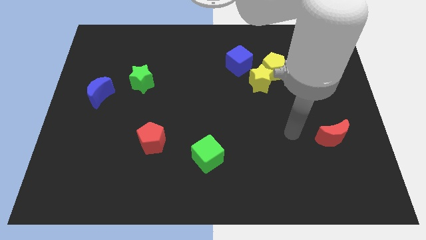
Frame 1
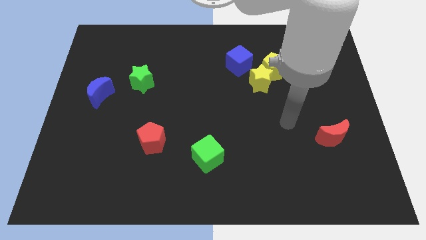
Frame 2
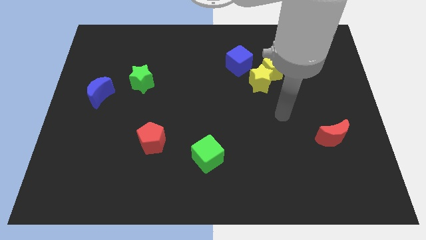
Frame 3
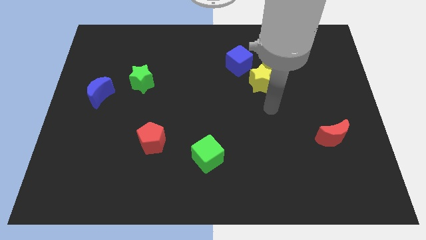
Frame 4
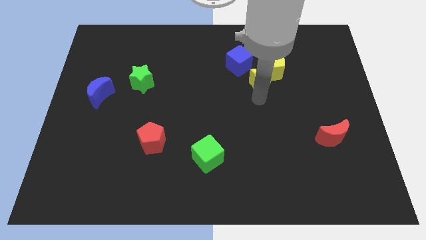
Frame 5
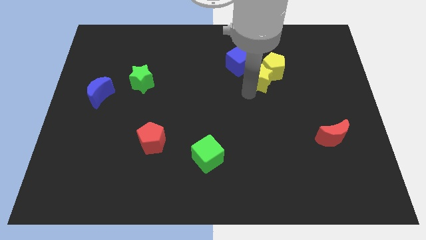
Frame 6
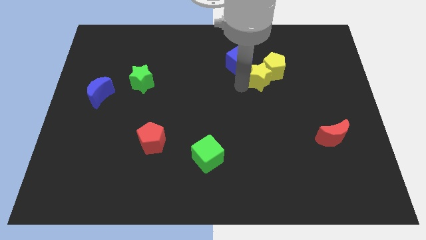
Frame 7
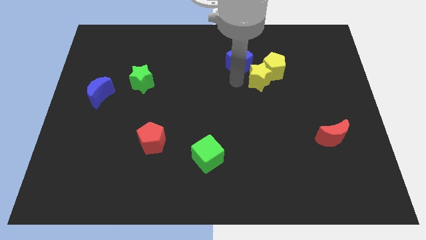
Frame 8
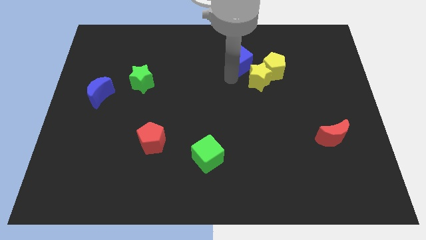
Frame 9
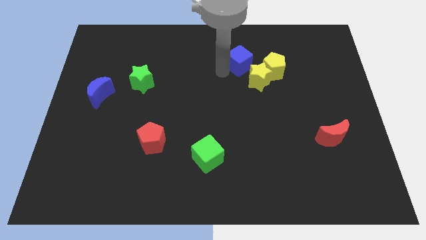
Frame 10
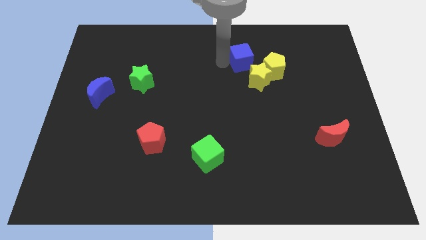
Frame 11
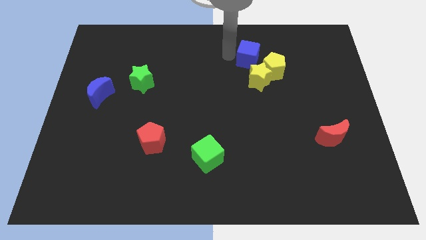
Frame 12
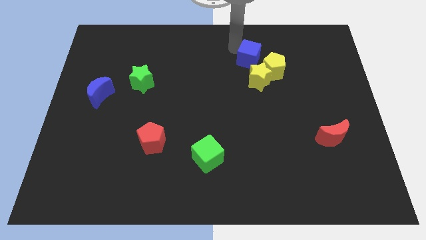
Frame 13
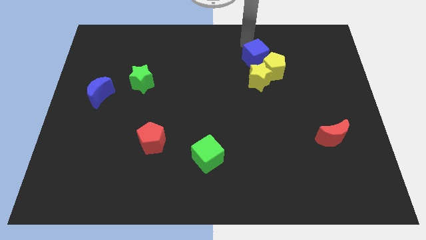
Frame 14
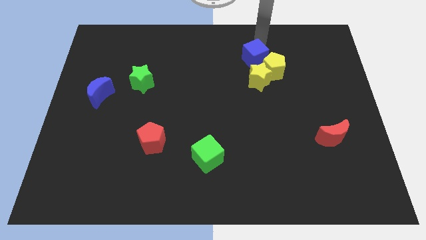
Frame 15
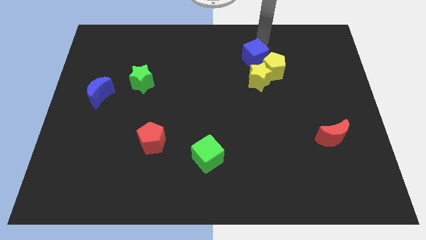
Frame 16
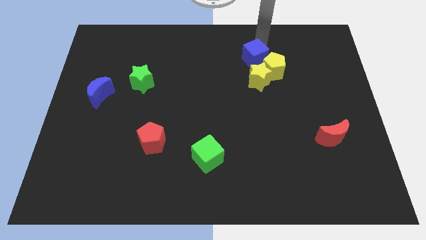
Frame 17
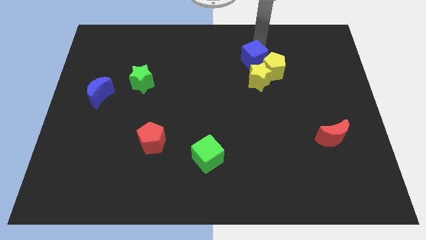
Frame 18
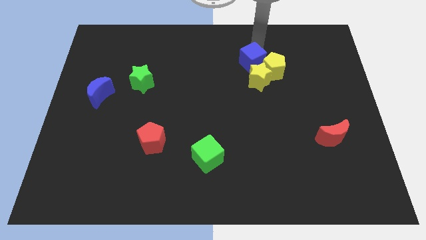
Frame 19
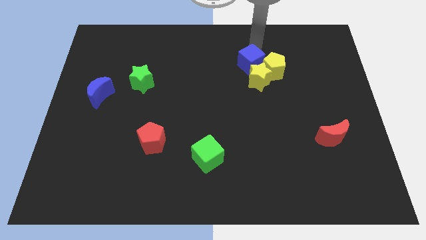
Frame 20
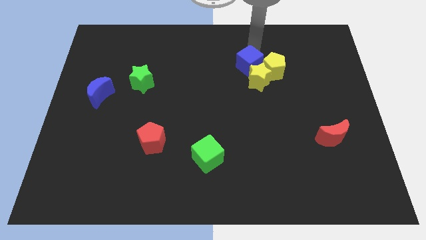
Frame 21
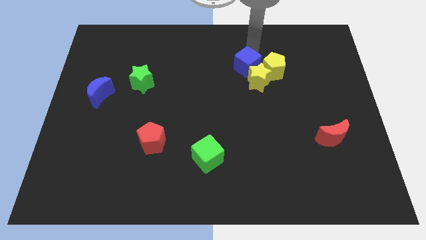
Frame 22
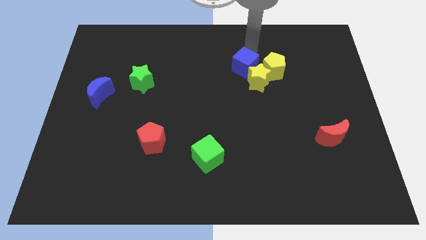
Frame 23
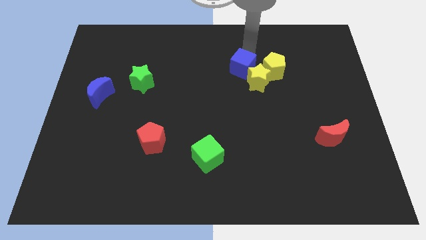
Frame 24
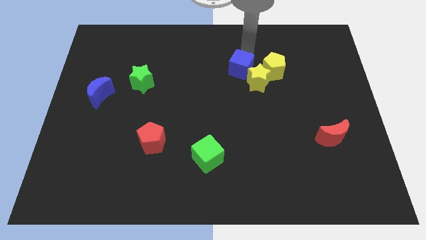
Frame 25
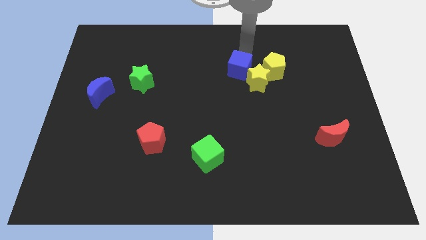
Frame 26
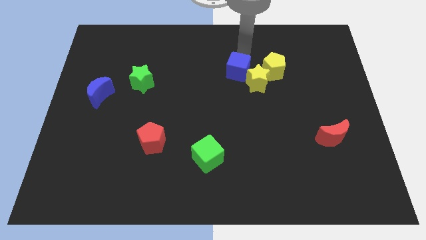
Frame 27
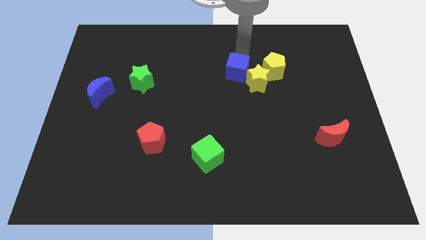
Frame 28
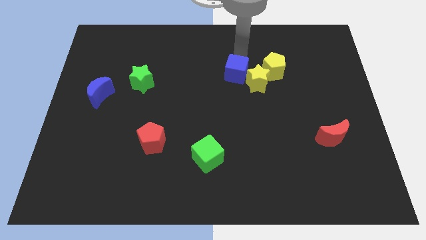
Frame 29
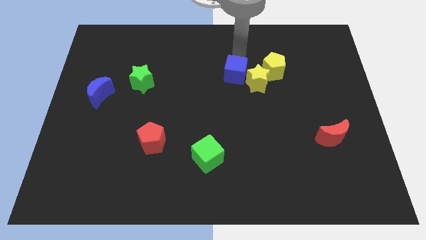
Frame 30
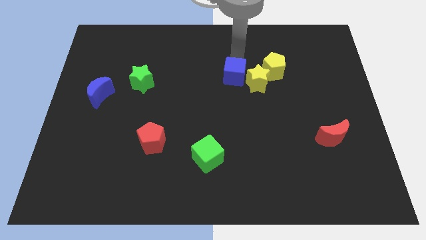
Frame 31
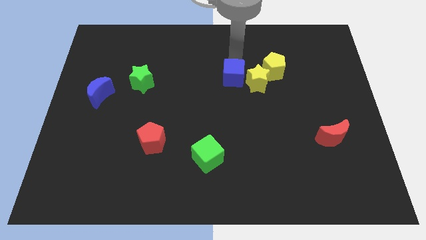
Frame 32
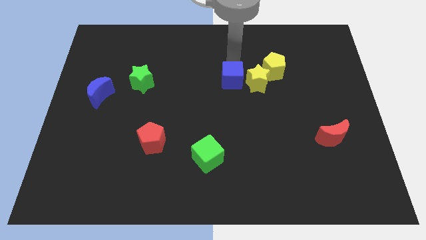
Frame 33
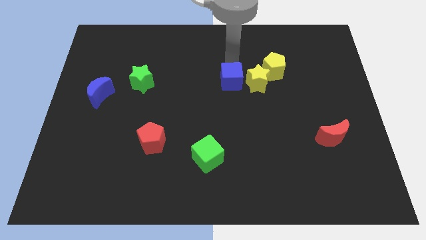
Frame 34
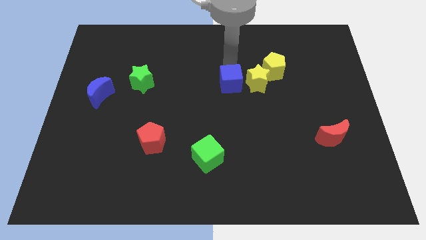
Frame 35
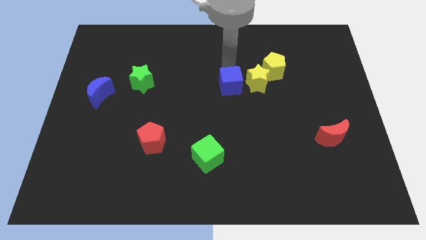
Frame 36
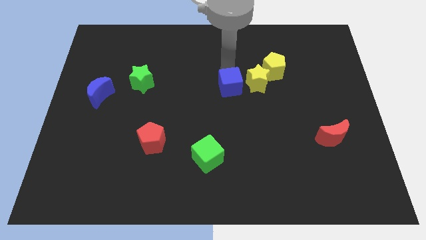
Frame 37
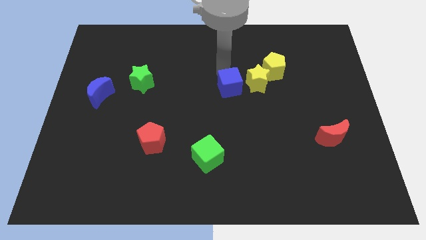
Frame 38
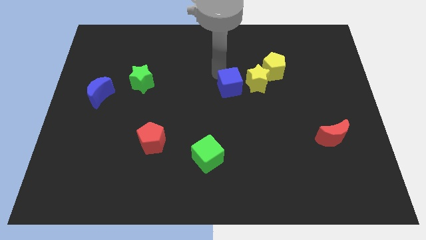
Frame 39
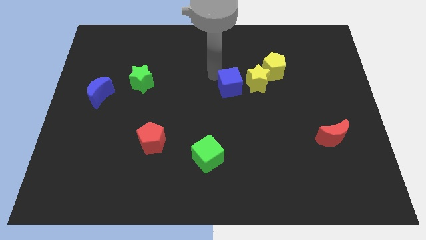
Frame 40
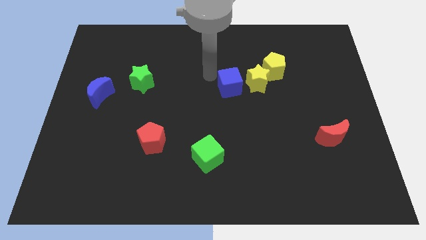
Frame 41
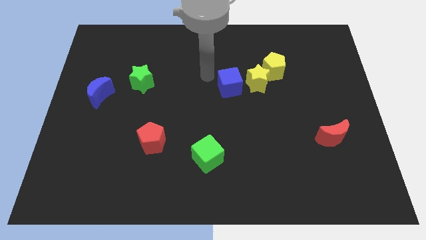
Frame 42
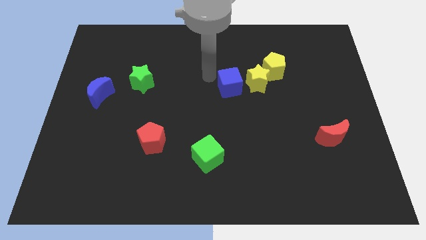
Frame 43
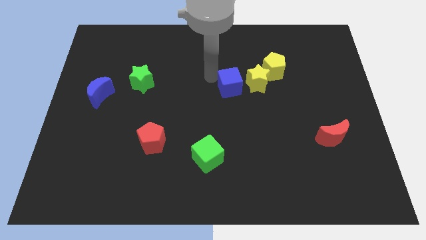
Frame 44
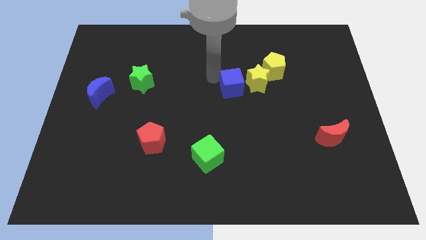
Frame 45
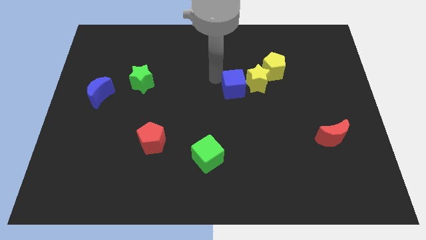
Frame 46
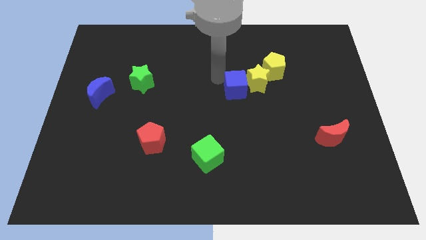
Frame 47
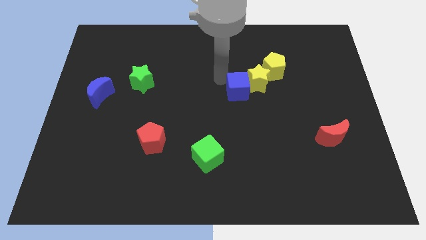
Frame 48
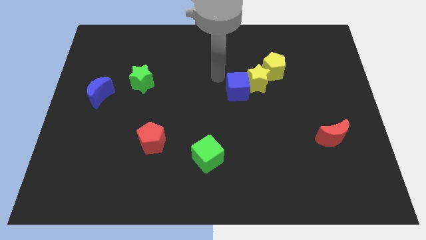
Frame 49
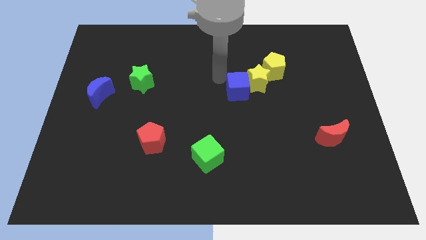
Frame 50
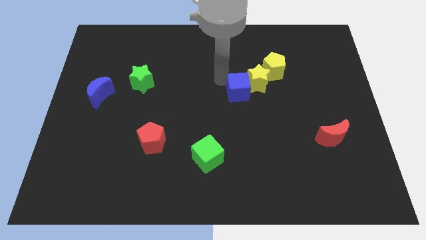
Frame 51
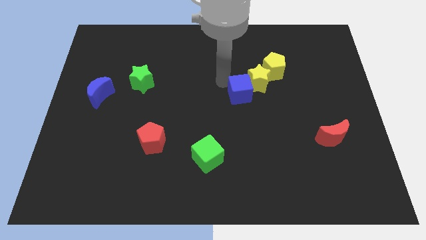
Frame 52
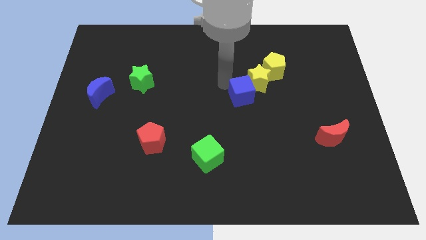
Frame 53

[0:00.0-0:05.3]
push the blue cube to the bottom side of the yellow star

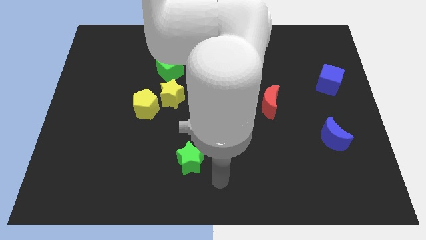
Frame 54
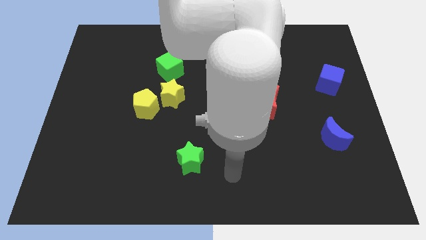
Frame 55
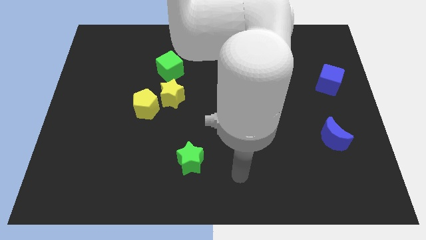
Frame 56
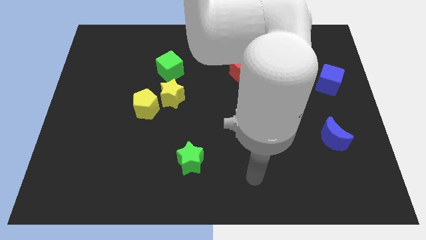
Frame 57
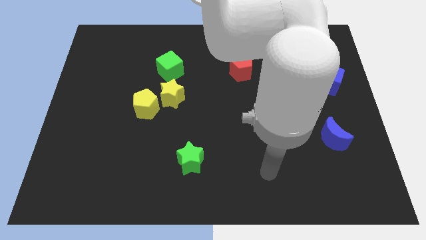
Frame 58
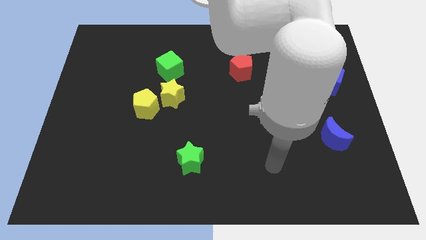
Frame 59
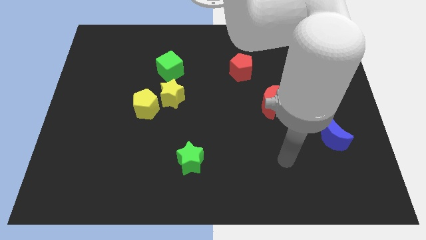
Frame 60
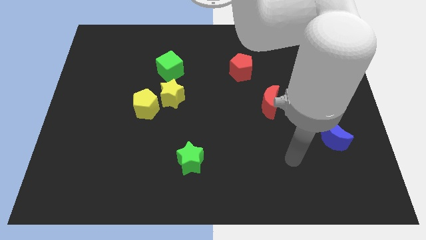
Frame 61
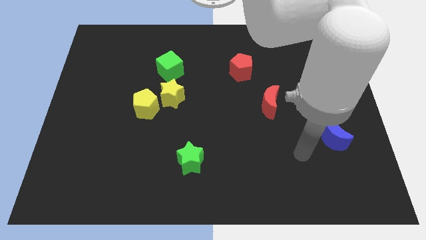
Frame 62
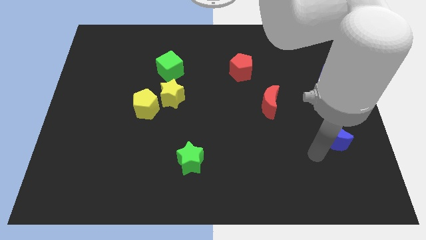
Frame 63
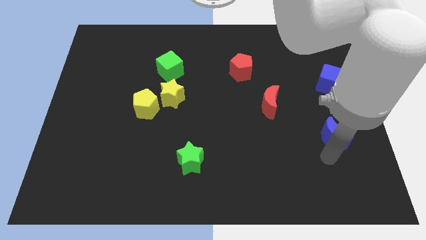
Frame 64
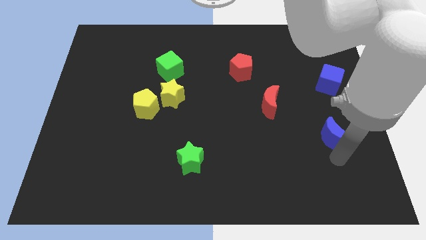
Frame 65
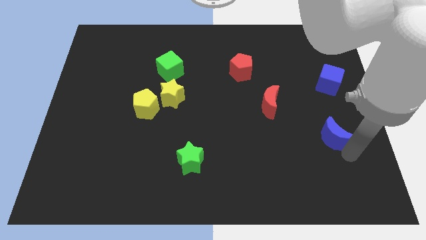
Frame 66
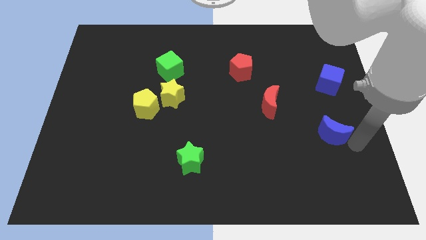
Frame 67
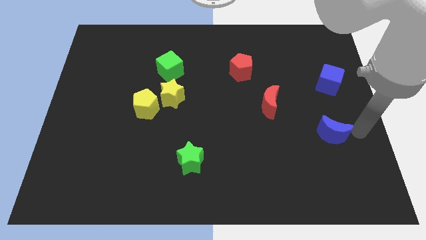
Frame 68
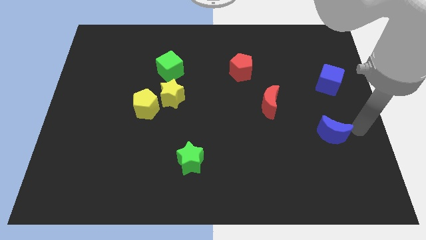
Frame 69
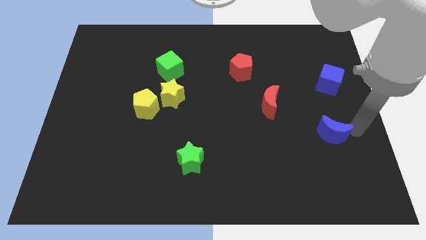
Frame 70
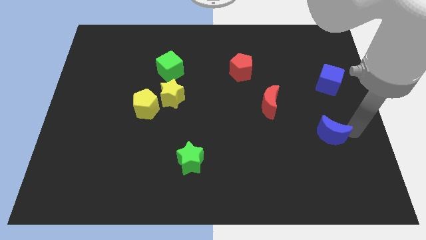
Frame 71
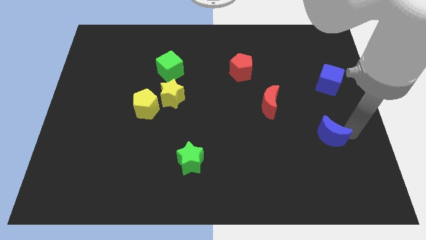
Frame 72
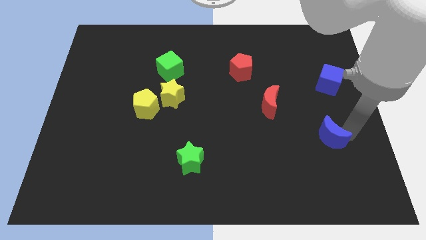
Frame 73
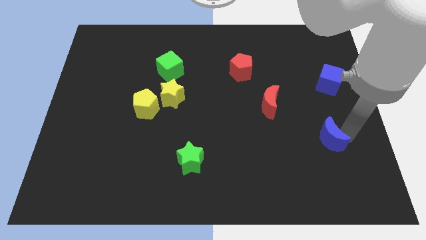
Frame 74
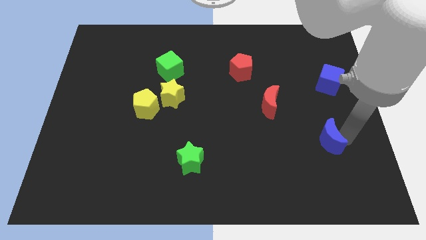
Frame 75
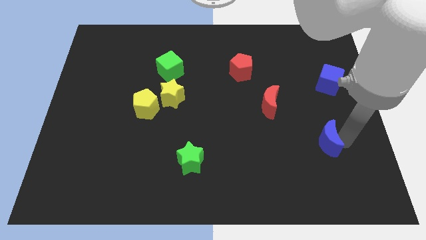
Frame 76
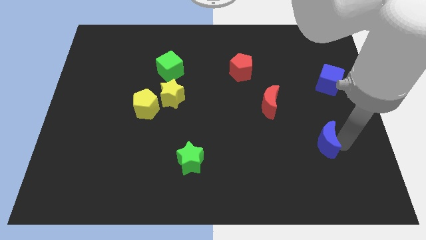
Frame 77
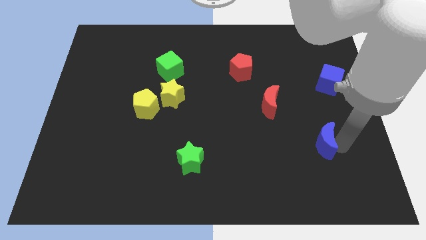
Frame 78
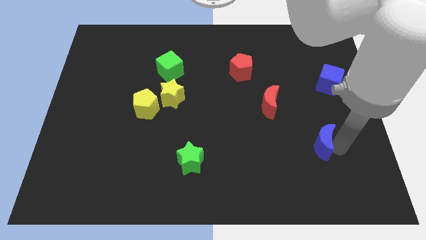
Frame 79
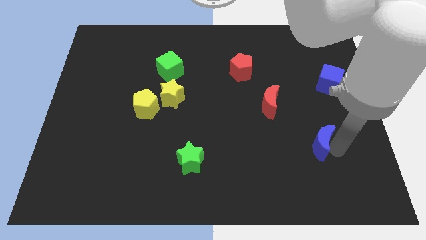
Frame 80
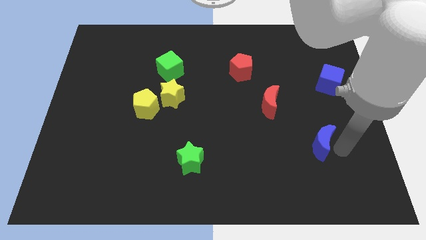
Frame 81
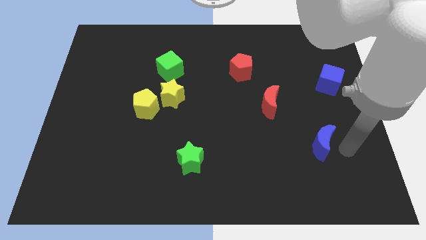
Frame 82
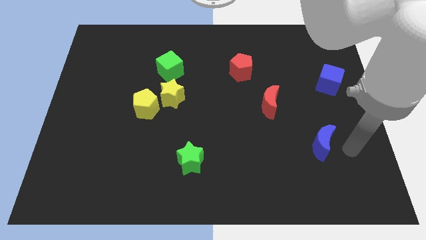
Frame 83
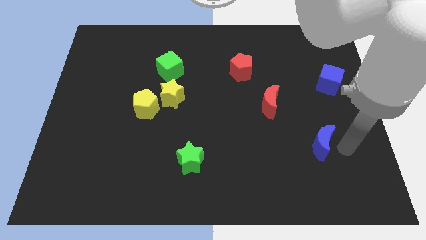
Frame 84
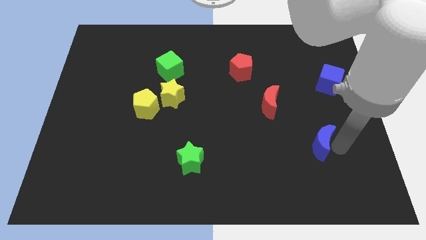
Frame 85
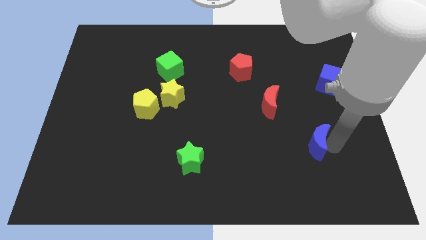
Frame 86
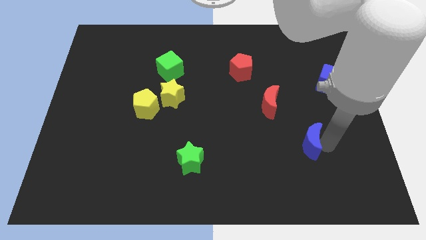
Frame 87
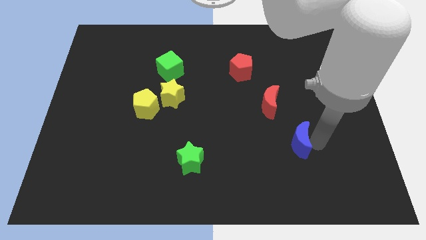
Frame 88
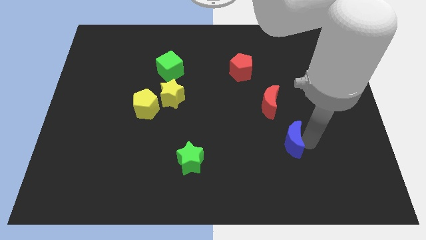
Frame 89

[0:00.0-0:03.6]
slide the blue moon below the red moon
